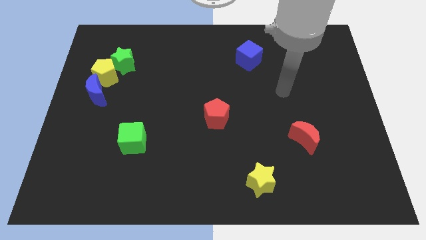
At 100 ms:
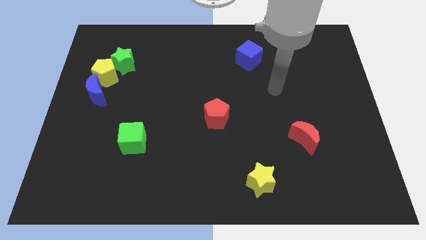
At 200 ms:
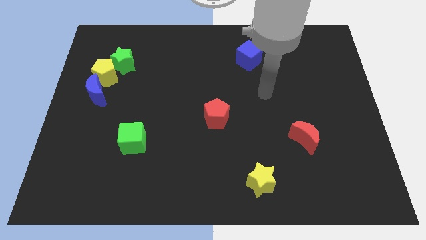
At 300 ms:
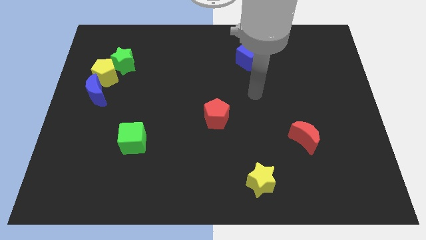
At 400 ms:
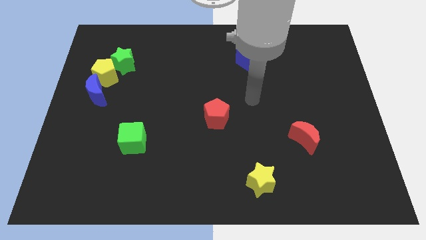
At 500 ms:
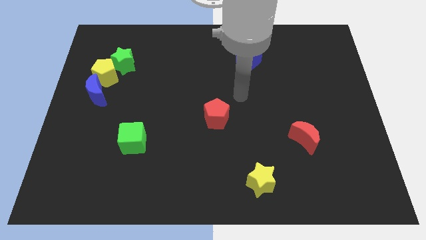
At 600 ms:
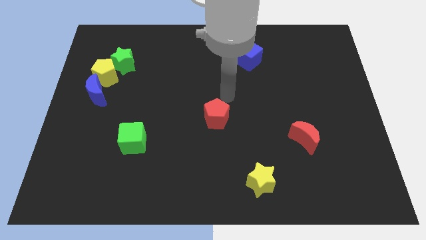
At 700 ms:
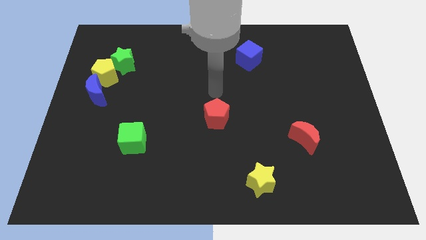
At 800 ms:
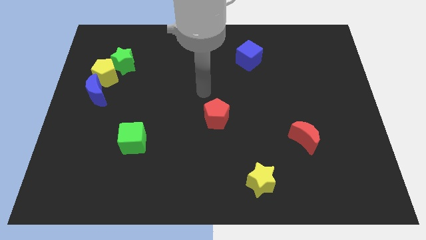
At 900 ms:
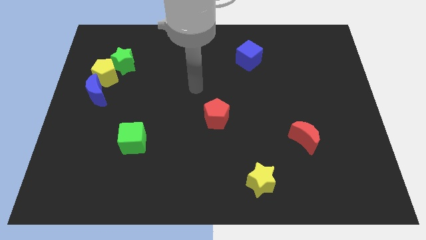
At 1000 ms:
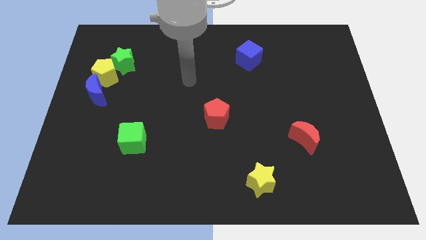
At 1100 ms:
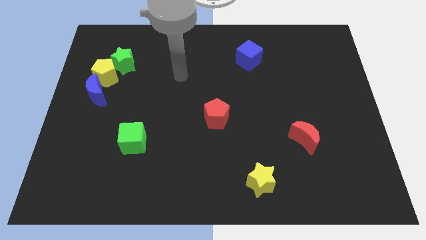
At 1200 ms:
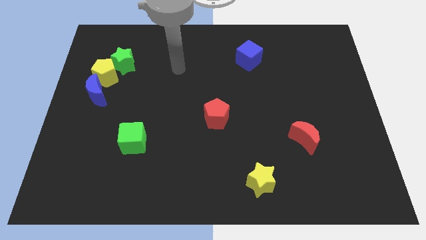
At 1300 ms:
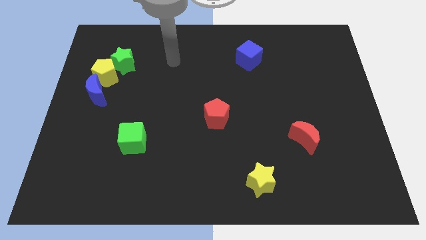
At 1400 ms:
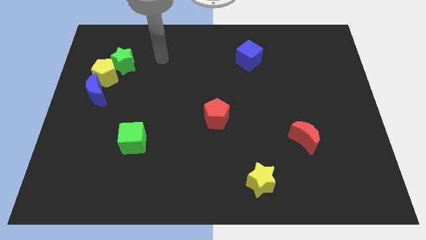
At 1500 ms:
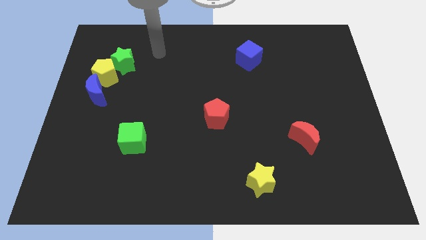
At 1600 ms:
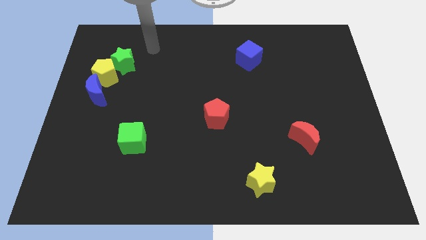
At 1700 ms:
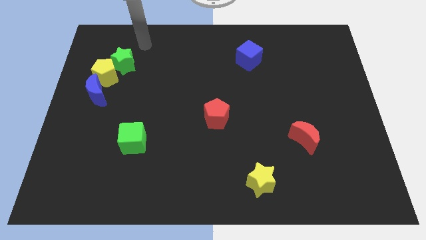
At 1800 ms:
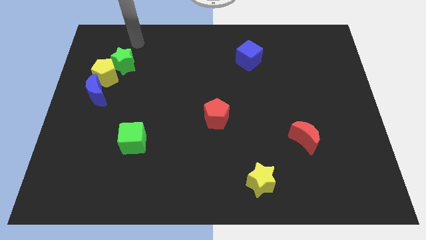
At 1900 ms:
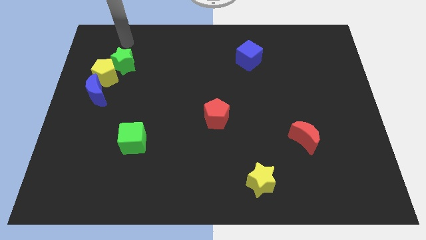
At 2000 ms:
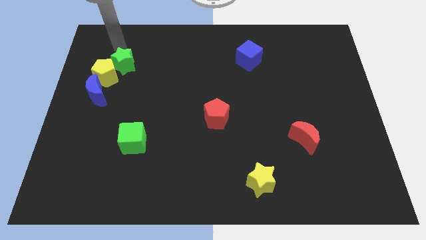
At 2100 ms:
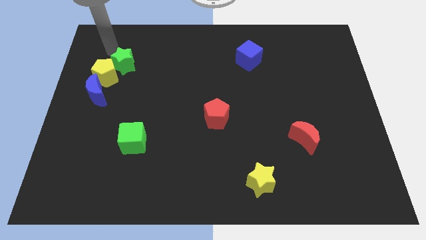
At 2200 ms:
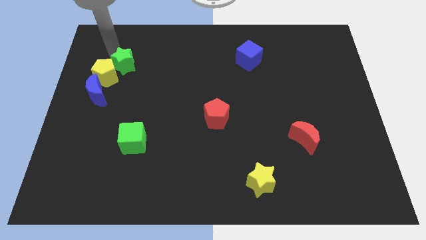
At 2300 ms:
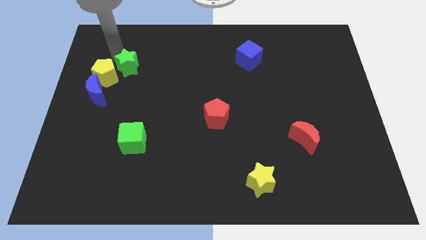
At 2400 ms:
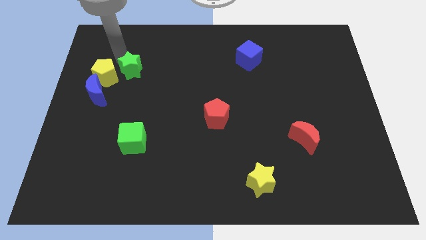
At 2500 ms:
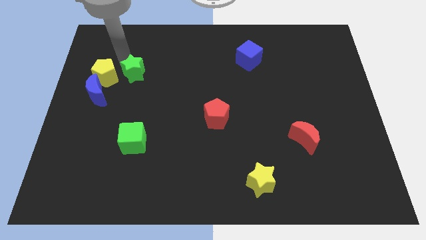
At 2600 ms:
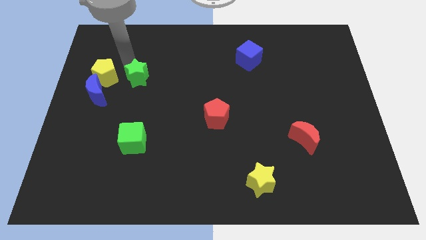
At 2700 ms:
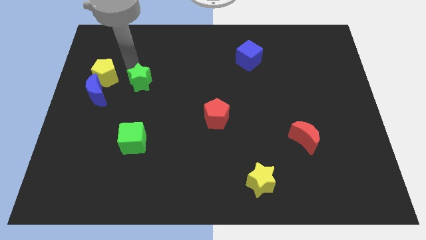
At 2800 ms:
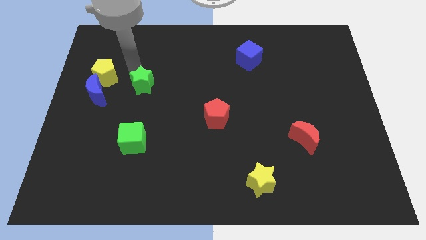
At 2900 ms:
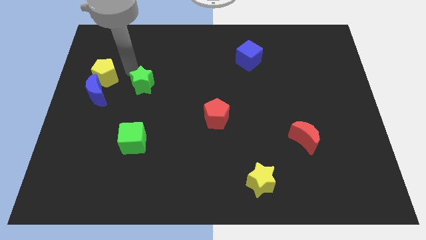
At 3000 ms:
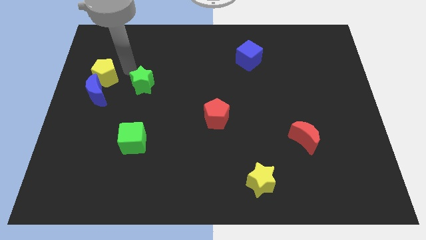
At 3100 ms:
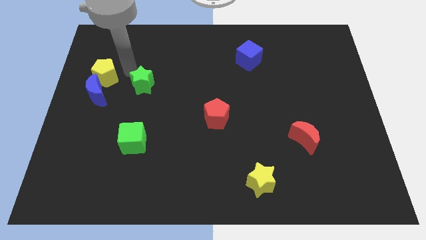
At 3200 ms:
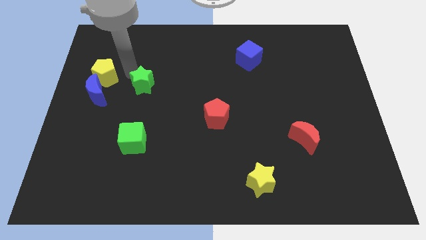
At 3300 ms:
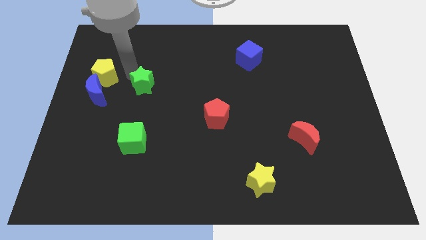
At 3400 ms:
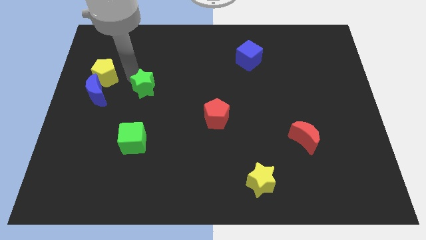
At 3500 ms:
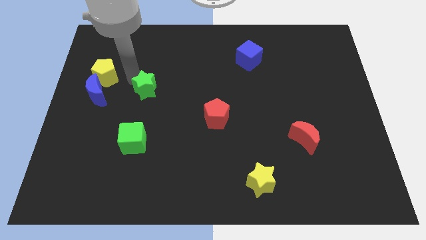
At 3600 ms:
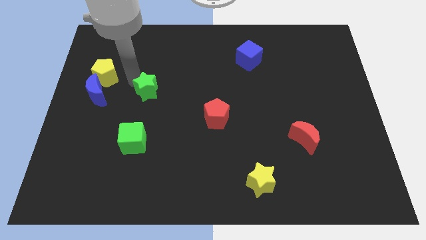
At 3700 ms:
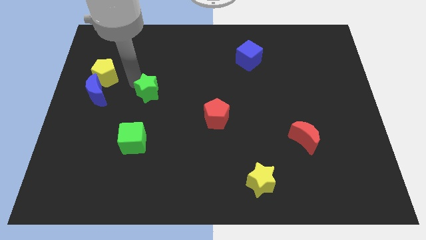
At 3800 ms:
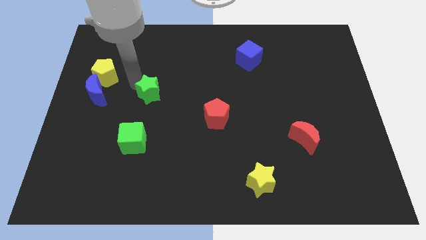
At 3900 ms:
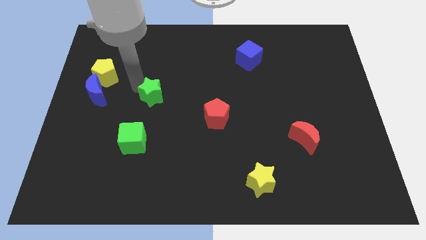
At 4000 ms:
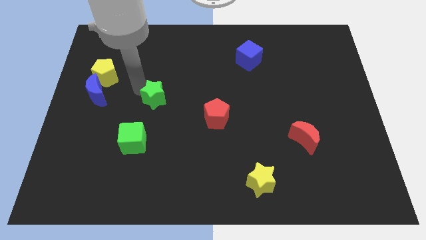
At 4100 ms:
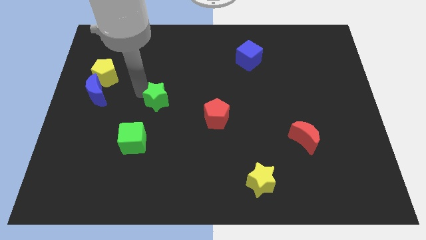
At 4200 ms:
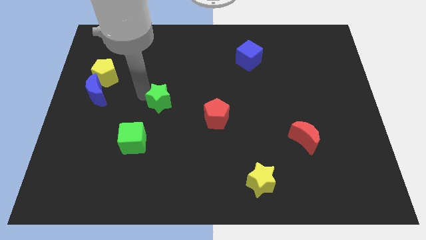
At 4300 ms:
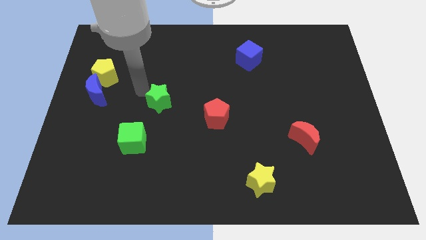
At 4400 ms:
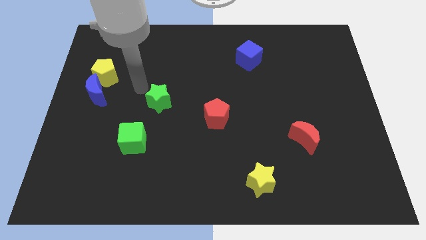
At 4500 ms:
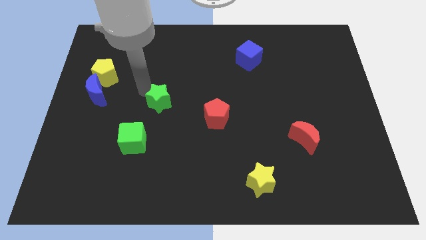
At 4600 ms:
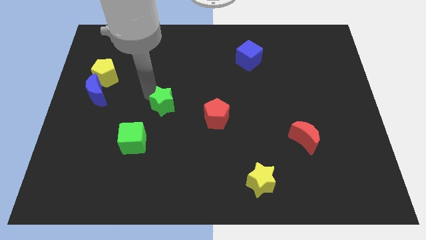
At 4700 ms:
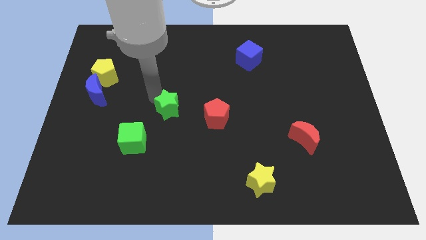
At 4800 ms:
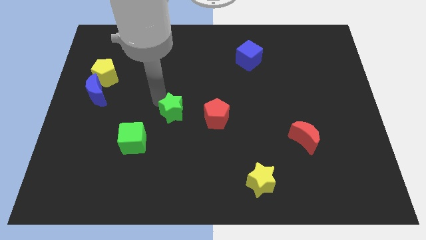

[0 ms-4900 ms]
push the green star diagonally down and to the right

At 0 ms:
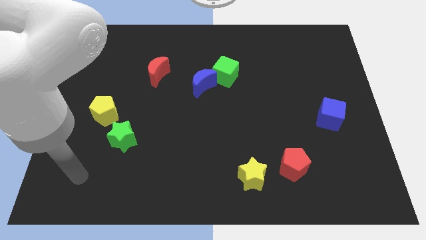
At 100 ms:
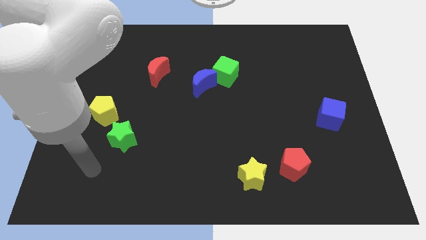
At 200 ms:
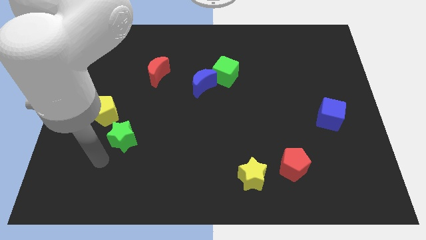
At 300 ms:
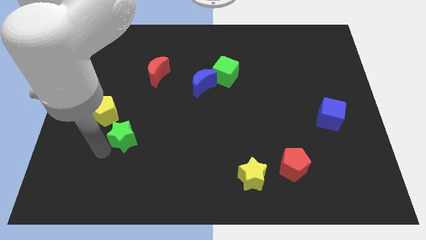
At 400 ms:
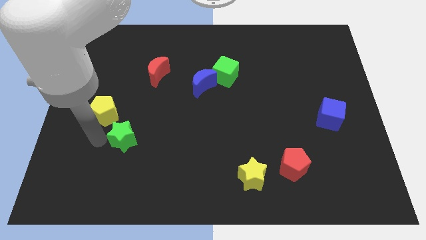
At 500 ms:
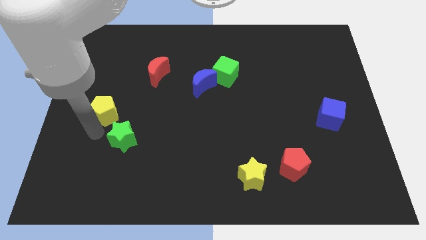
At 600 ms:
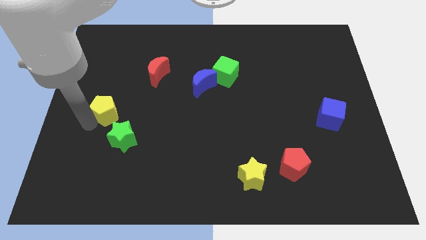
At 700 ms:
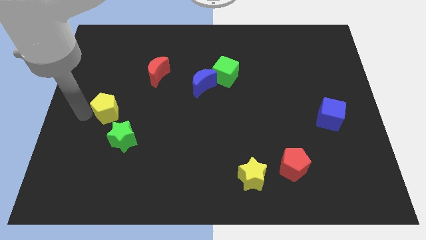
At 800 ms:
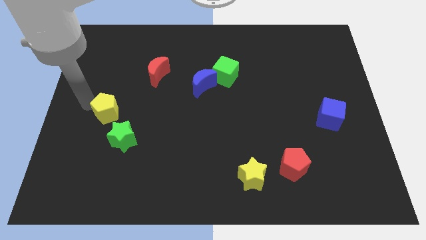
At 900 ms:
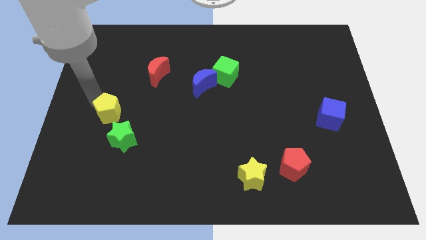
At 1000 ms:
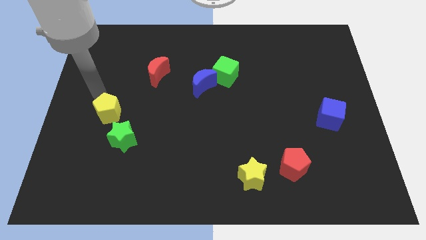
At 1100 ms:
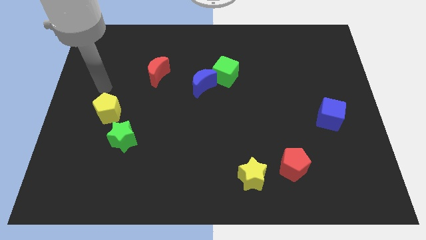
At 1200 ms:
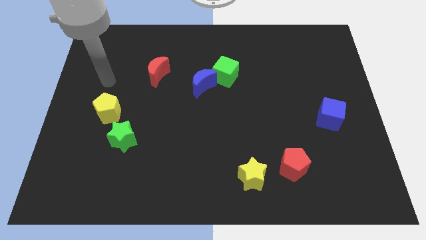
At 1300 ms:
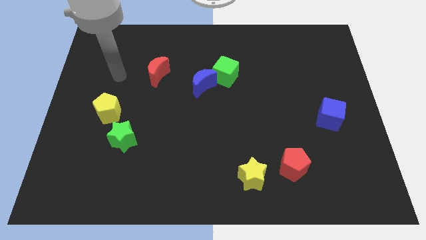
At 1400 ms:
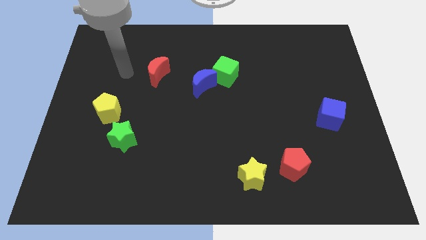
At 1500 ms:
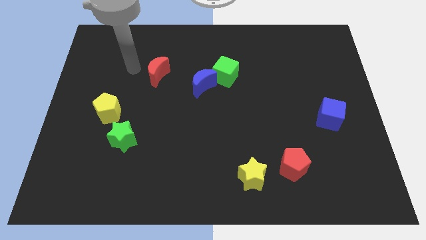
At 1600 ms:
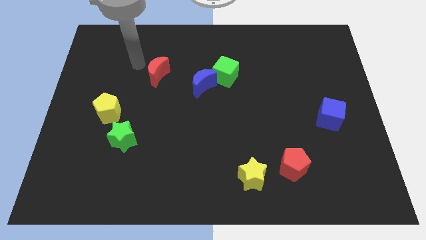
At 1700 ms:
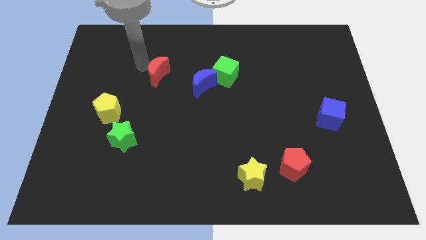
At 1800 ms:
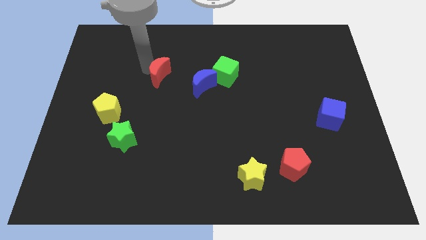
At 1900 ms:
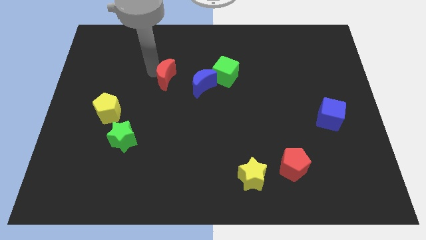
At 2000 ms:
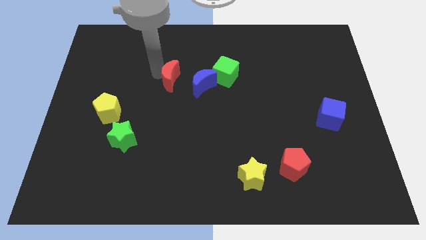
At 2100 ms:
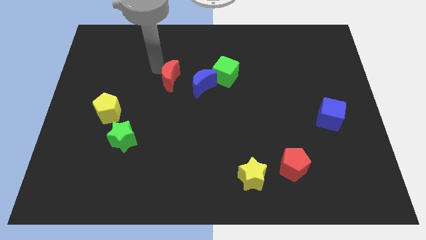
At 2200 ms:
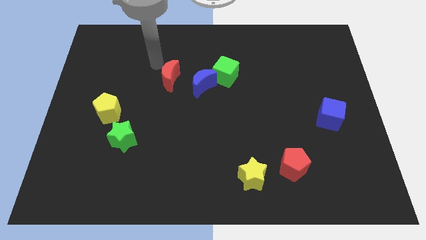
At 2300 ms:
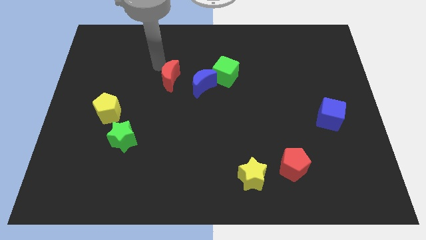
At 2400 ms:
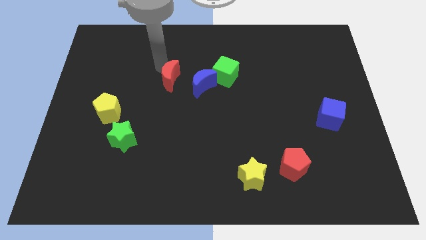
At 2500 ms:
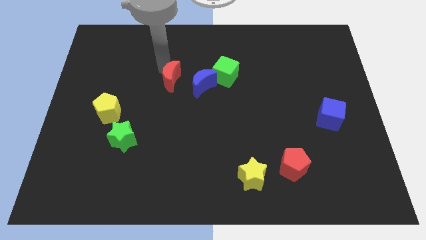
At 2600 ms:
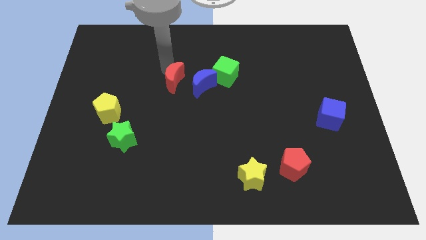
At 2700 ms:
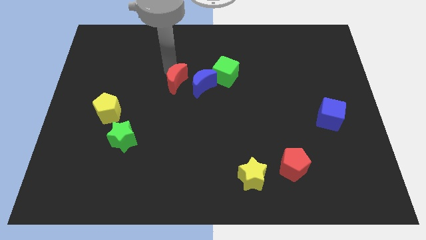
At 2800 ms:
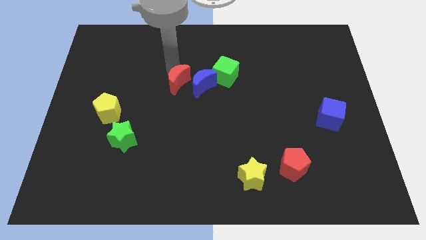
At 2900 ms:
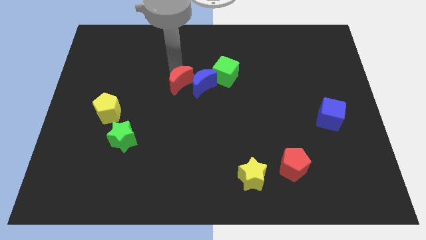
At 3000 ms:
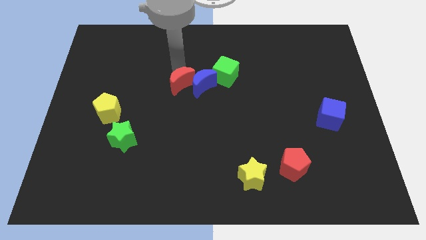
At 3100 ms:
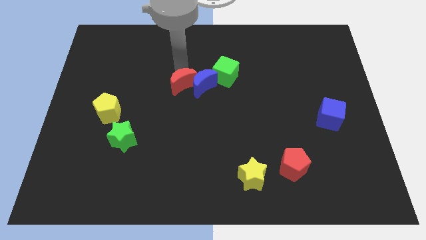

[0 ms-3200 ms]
slightly move the red moon downwards and right
